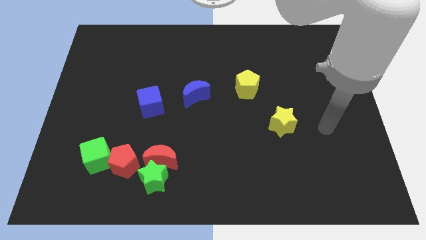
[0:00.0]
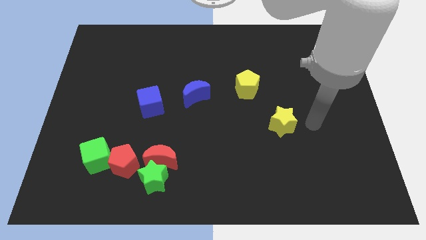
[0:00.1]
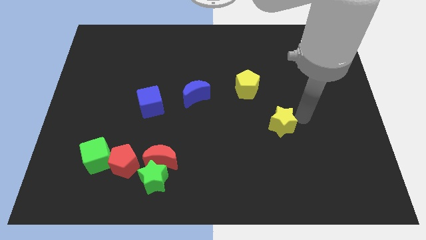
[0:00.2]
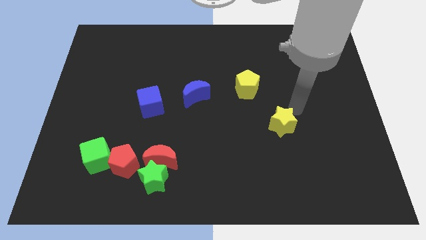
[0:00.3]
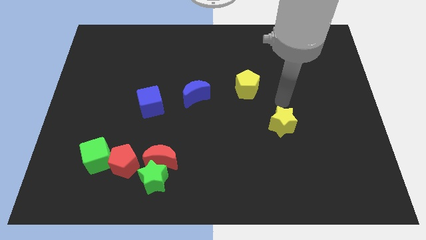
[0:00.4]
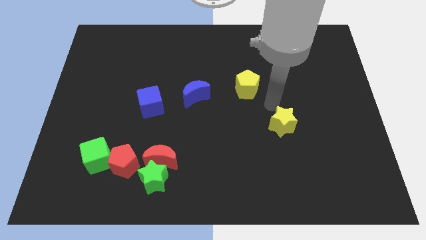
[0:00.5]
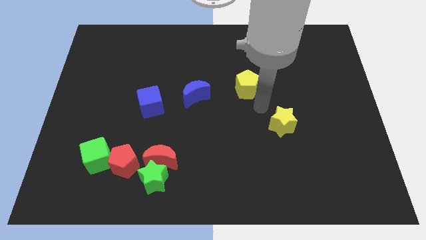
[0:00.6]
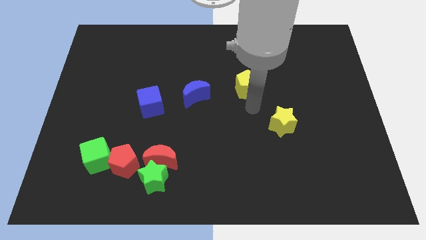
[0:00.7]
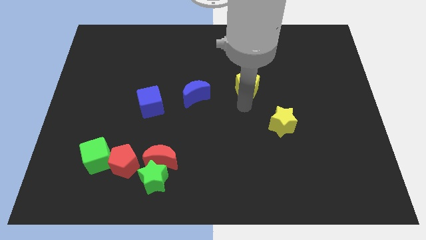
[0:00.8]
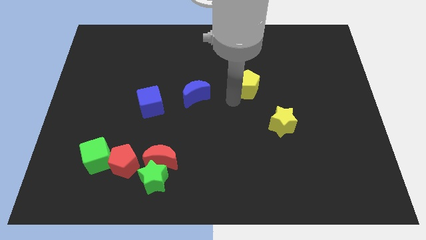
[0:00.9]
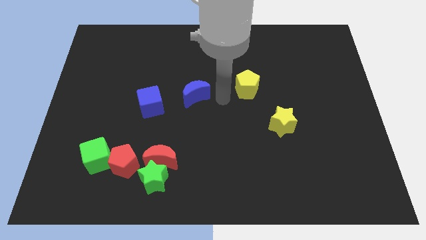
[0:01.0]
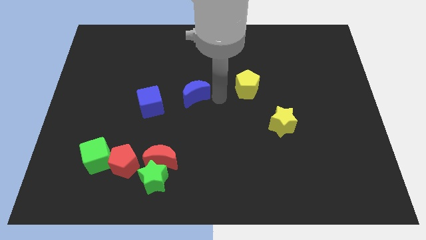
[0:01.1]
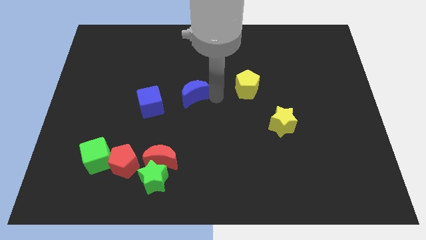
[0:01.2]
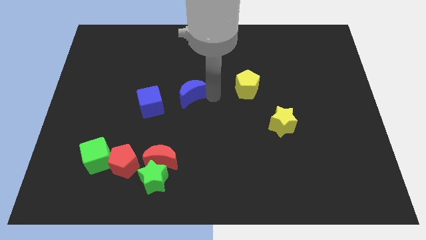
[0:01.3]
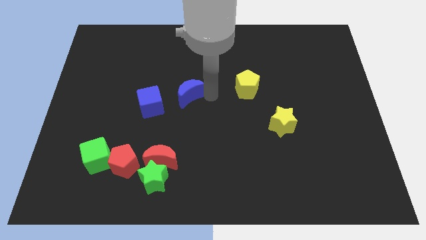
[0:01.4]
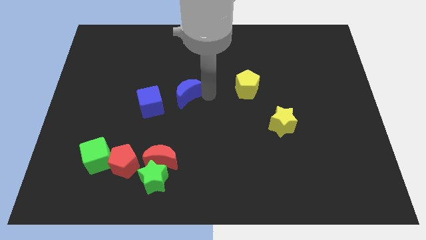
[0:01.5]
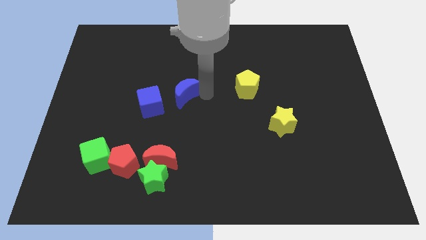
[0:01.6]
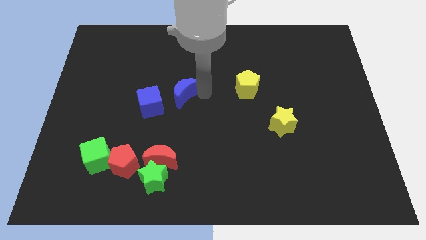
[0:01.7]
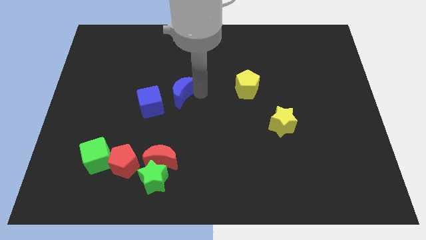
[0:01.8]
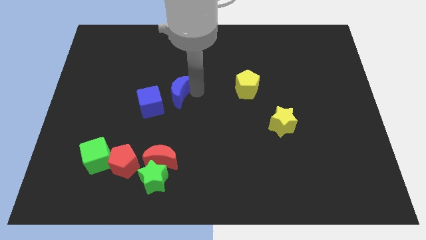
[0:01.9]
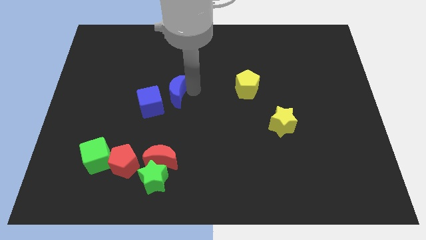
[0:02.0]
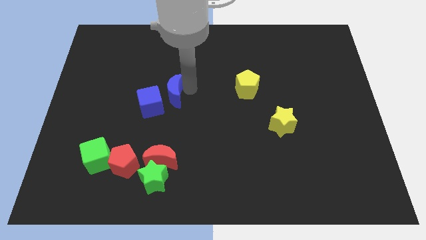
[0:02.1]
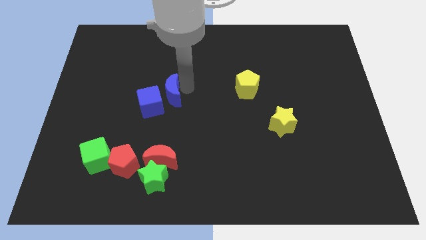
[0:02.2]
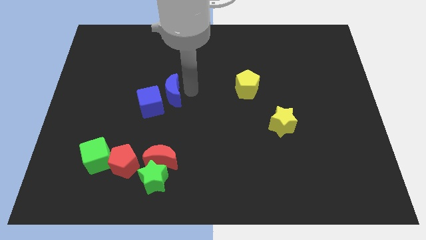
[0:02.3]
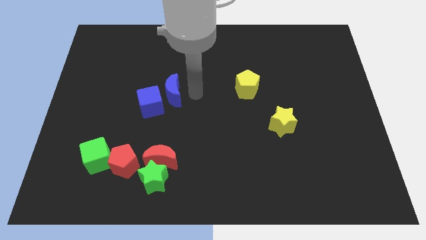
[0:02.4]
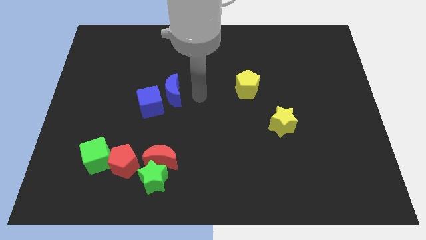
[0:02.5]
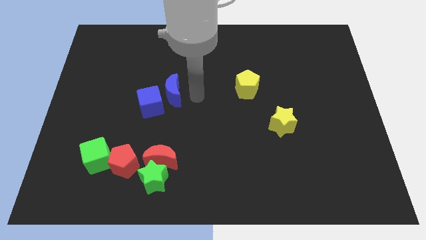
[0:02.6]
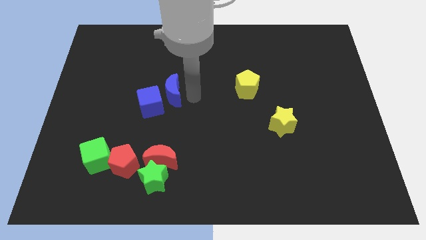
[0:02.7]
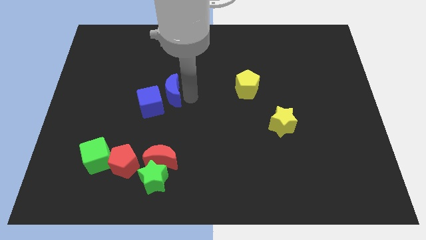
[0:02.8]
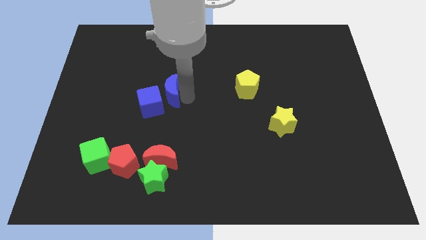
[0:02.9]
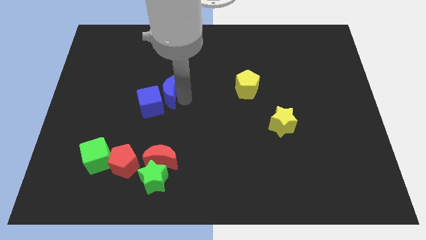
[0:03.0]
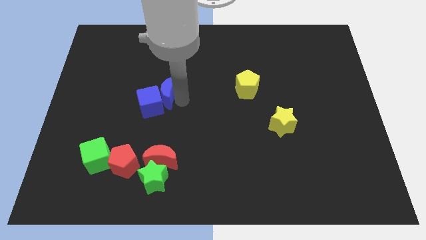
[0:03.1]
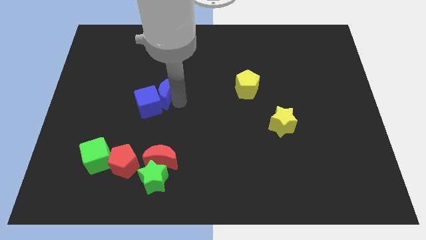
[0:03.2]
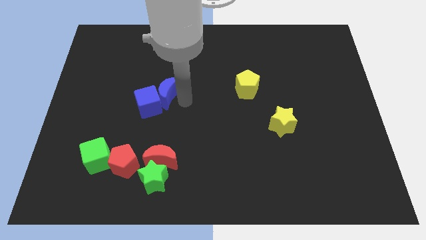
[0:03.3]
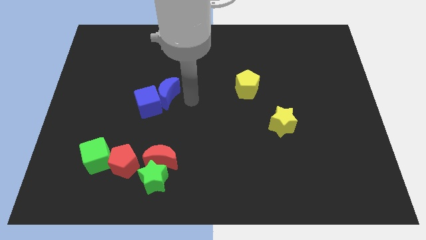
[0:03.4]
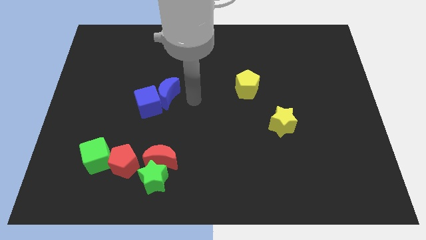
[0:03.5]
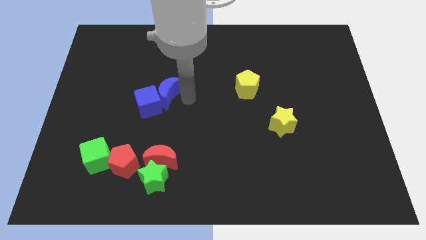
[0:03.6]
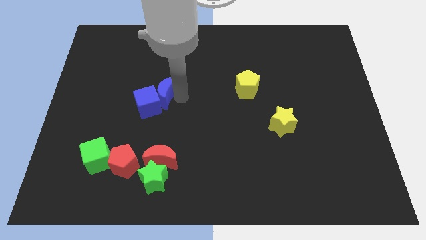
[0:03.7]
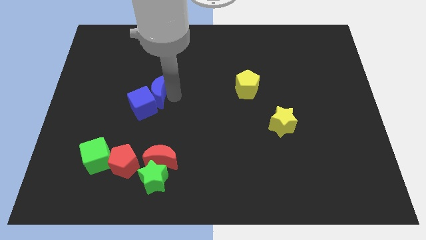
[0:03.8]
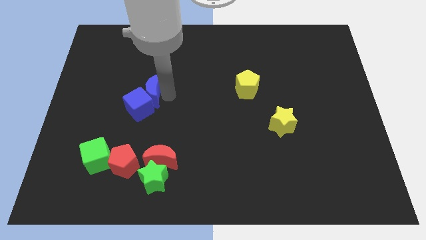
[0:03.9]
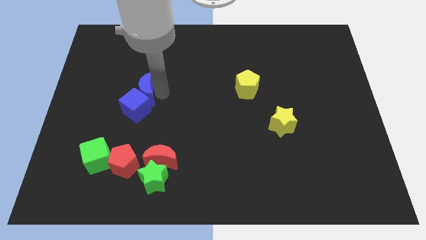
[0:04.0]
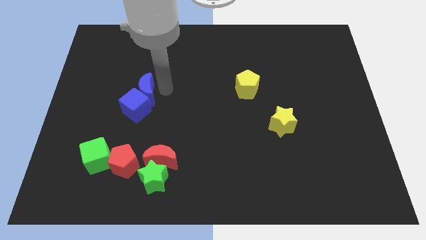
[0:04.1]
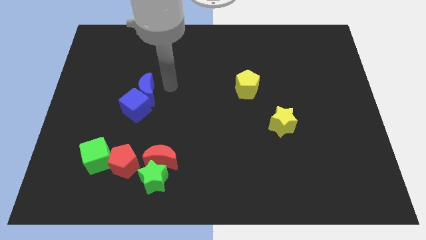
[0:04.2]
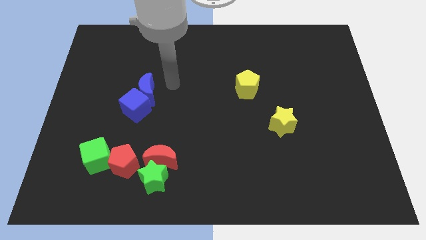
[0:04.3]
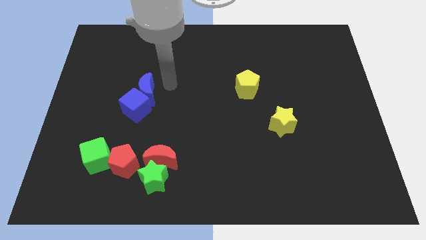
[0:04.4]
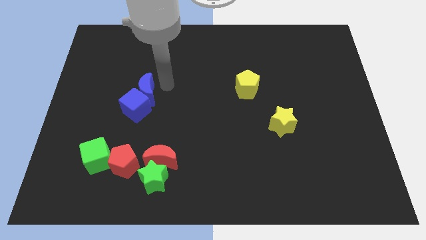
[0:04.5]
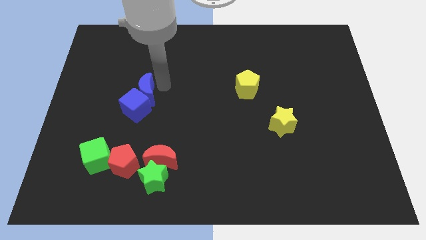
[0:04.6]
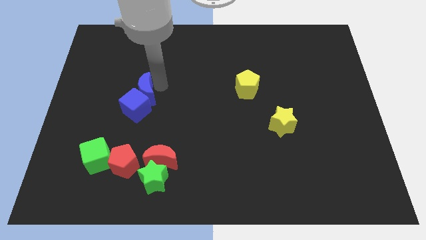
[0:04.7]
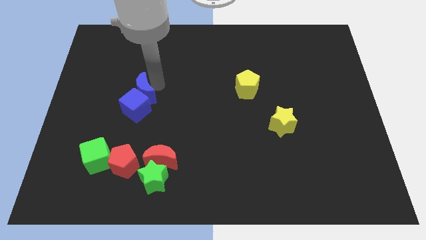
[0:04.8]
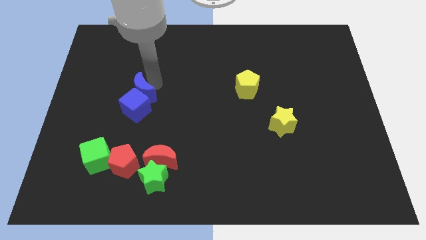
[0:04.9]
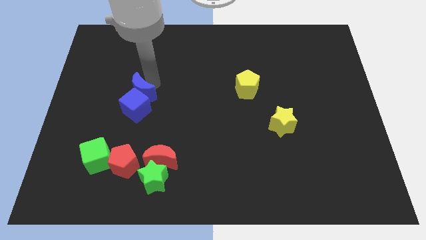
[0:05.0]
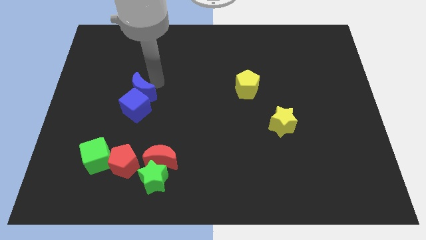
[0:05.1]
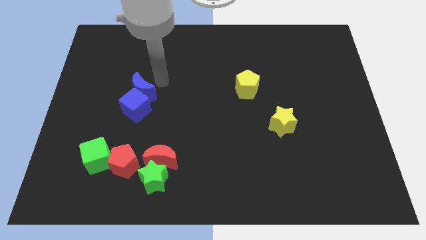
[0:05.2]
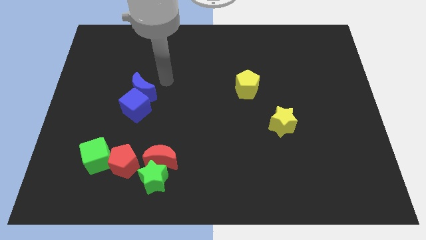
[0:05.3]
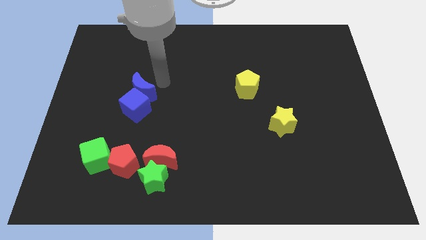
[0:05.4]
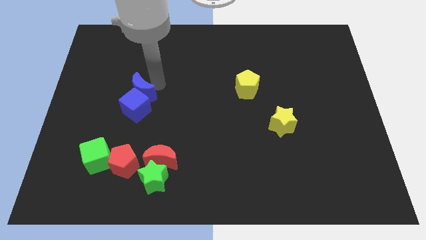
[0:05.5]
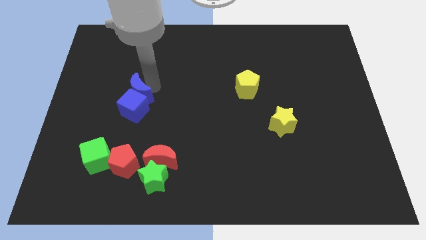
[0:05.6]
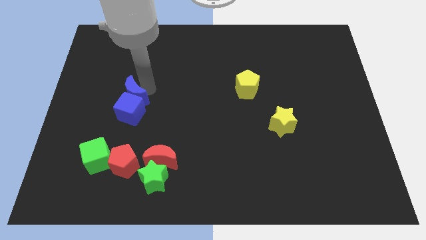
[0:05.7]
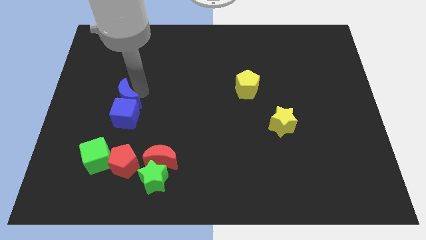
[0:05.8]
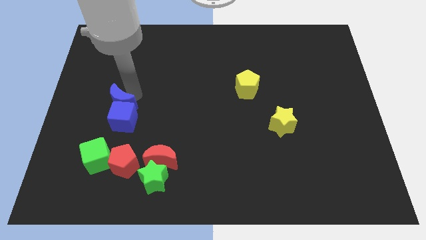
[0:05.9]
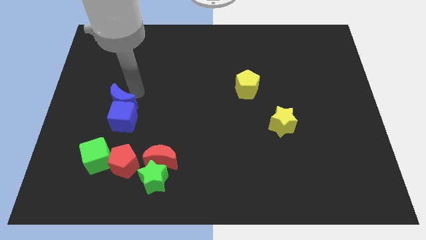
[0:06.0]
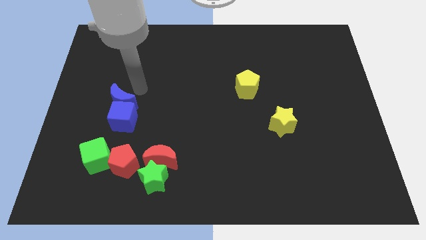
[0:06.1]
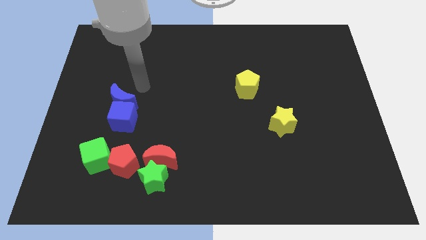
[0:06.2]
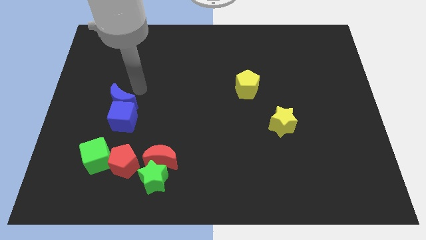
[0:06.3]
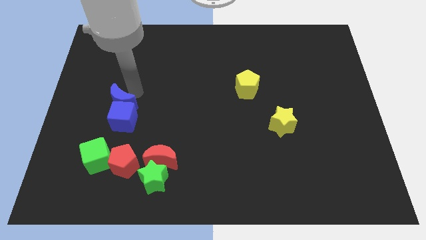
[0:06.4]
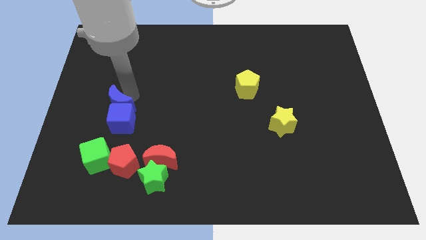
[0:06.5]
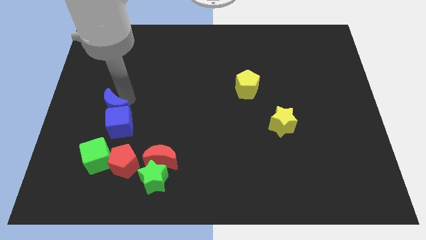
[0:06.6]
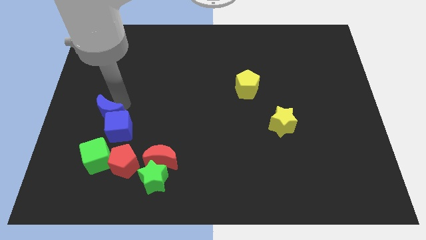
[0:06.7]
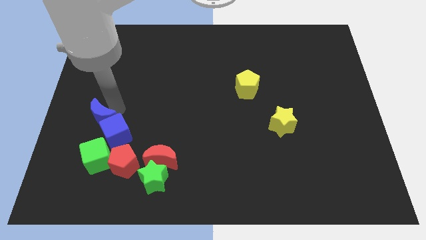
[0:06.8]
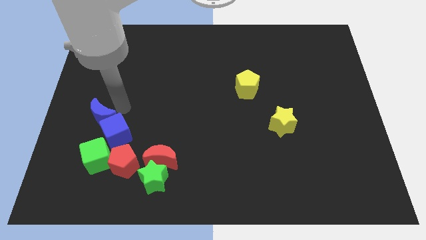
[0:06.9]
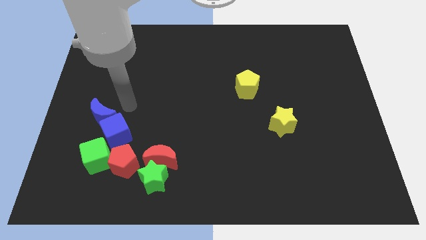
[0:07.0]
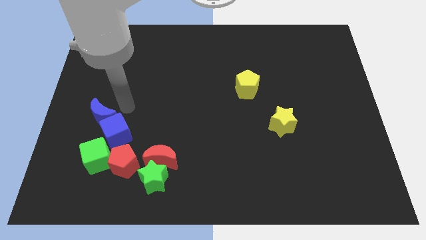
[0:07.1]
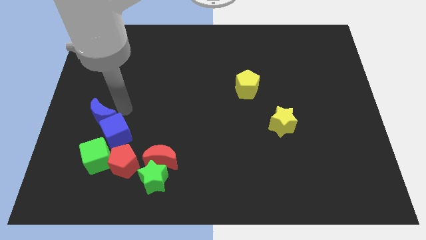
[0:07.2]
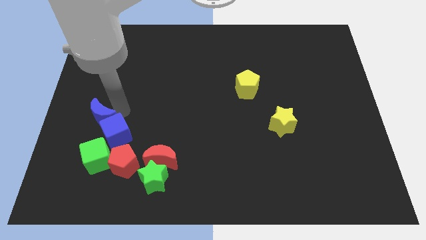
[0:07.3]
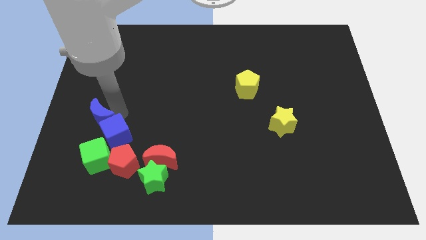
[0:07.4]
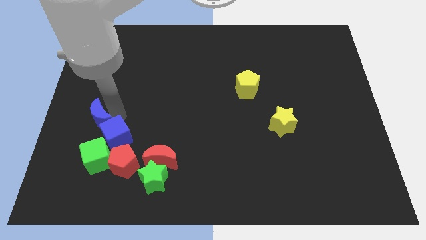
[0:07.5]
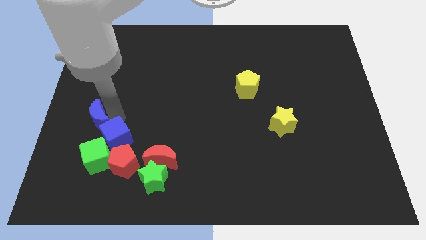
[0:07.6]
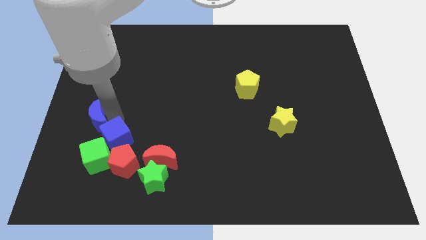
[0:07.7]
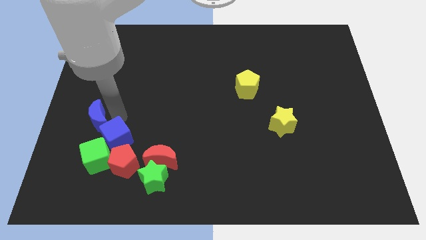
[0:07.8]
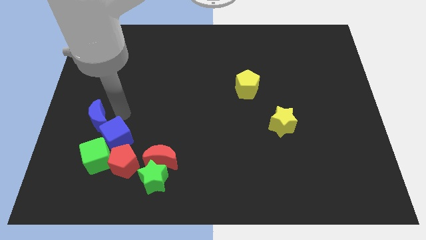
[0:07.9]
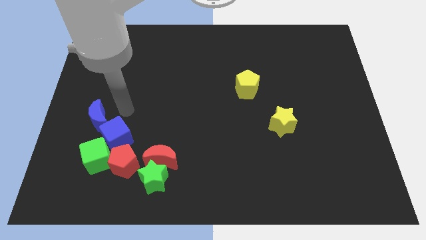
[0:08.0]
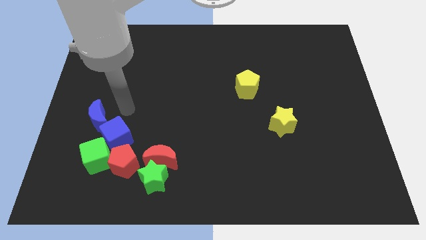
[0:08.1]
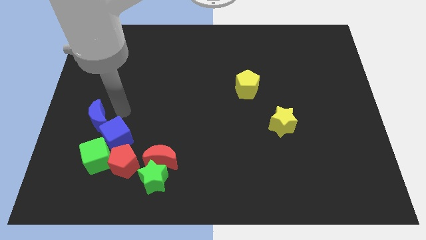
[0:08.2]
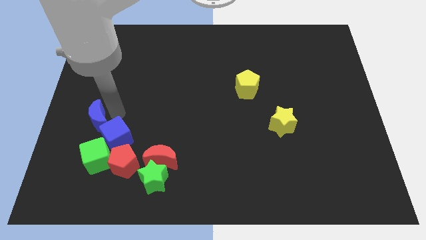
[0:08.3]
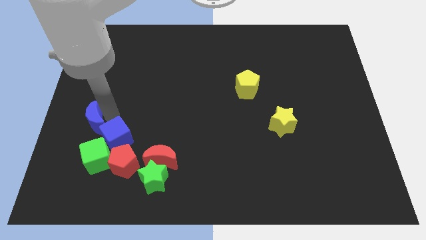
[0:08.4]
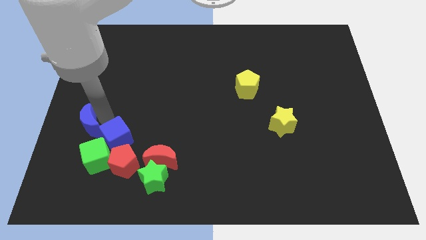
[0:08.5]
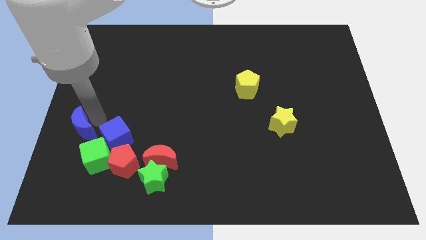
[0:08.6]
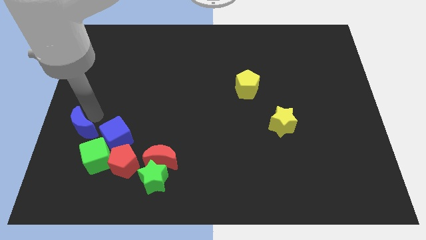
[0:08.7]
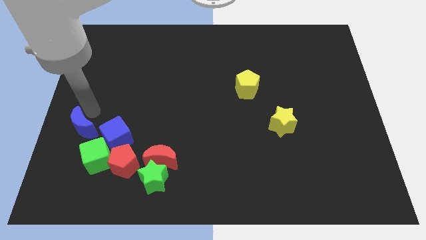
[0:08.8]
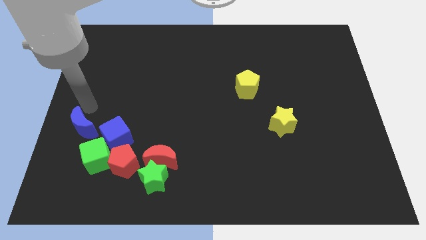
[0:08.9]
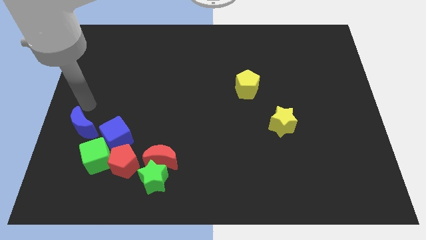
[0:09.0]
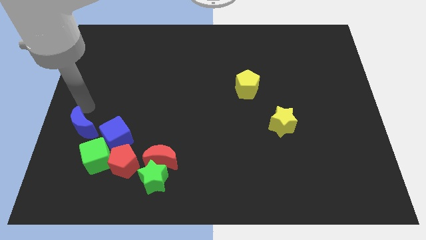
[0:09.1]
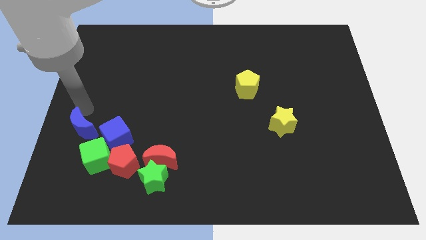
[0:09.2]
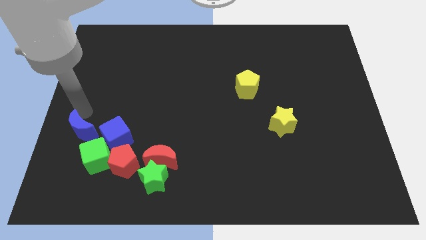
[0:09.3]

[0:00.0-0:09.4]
slide the blue moon diagonally down and to the left
